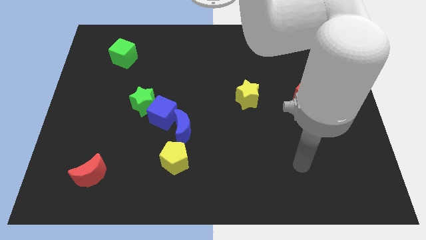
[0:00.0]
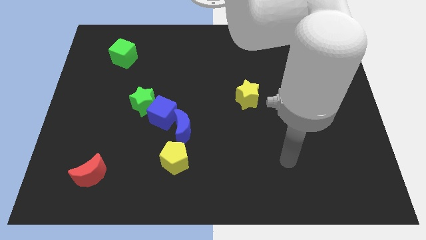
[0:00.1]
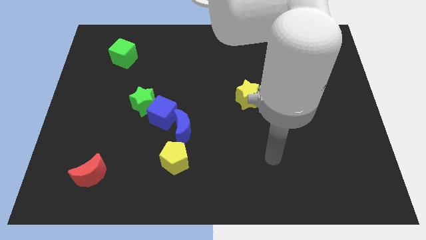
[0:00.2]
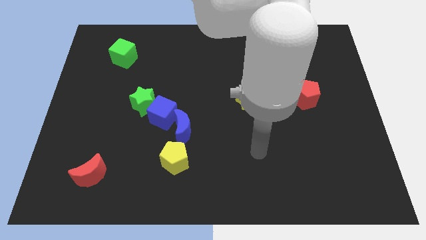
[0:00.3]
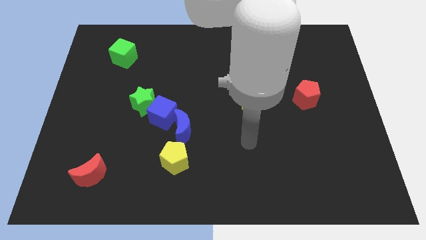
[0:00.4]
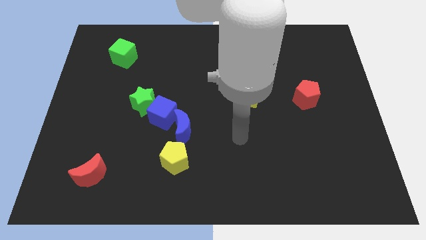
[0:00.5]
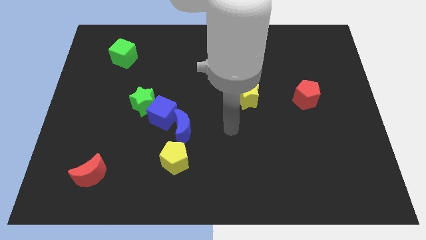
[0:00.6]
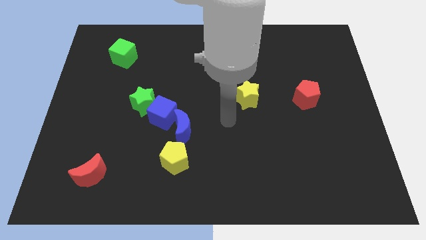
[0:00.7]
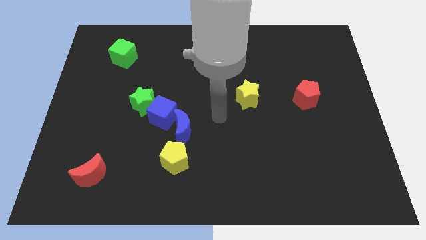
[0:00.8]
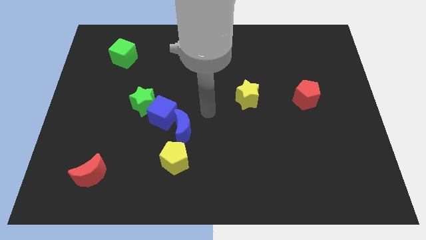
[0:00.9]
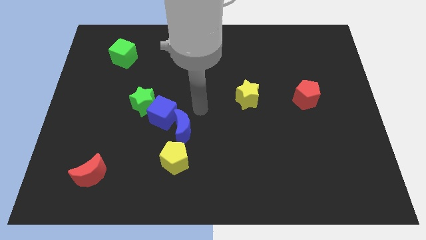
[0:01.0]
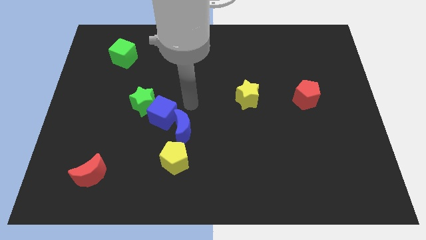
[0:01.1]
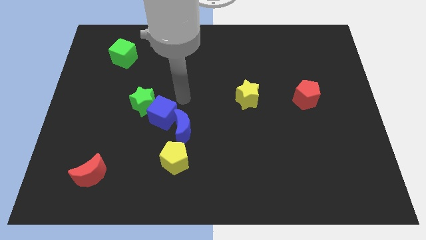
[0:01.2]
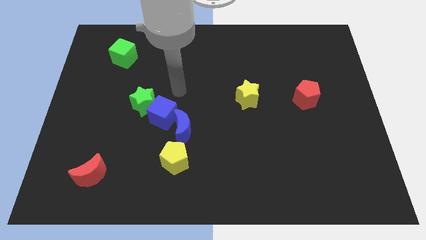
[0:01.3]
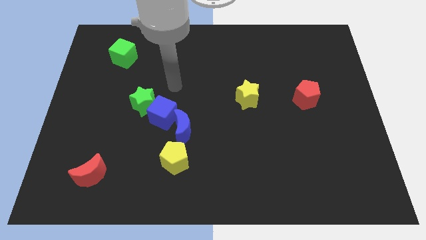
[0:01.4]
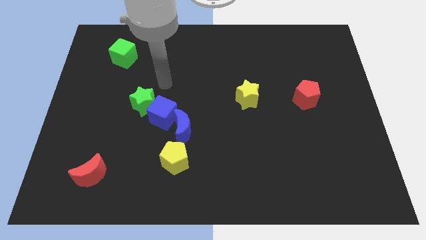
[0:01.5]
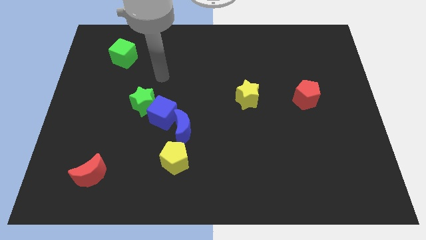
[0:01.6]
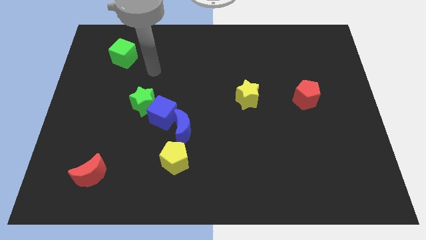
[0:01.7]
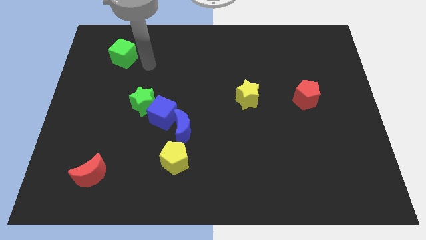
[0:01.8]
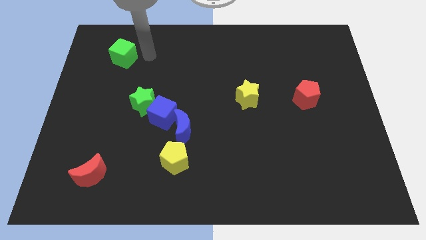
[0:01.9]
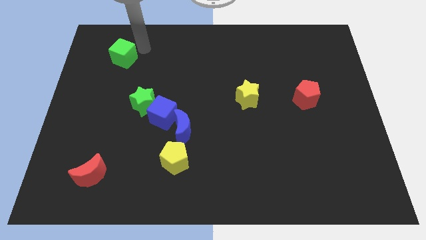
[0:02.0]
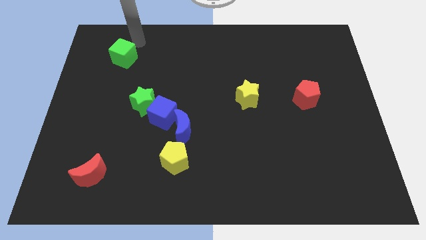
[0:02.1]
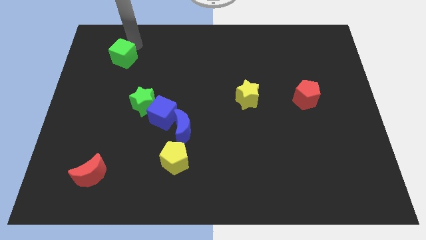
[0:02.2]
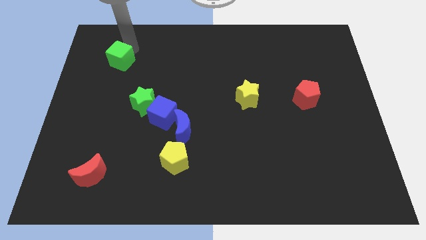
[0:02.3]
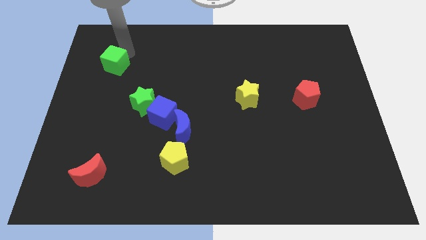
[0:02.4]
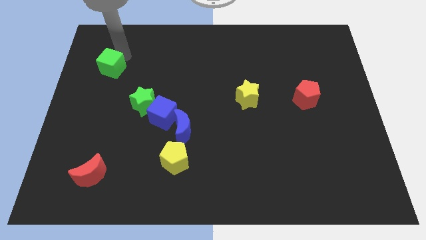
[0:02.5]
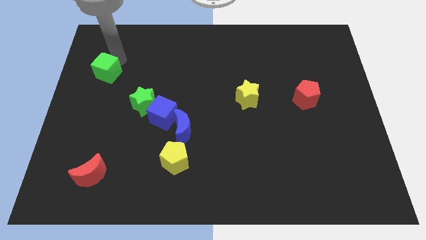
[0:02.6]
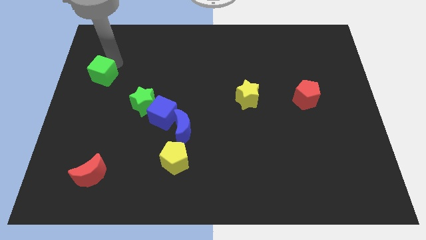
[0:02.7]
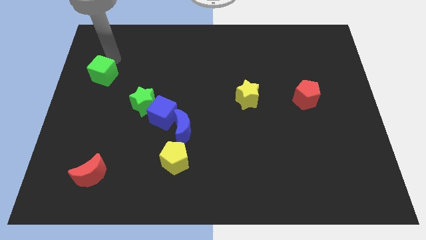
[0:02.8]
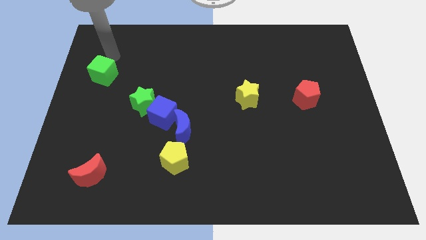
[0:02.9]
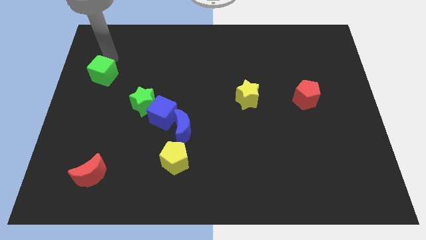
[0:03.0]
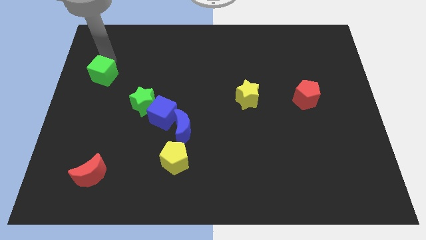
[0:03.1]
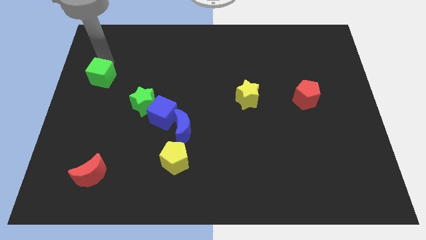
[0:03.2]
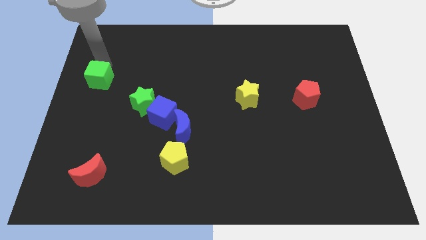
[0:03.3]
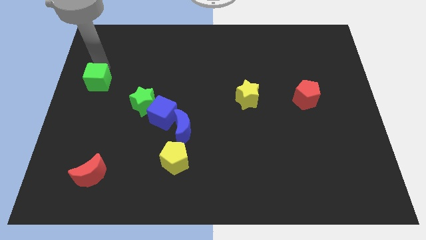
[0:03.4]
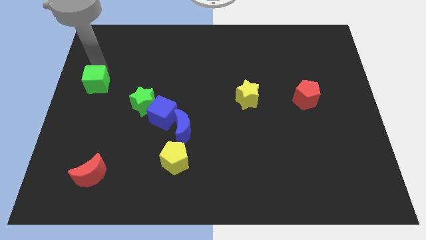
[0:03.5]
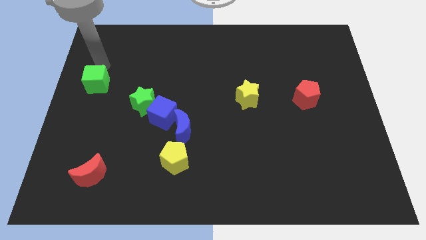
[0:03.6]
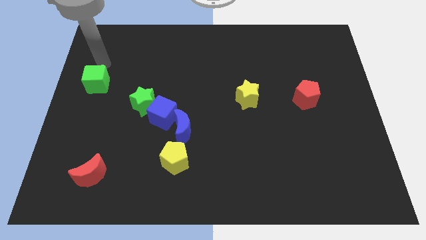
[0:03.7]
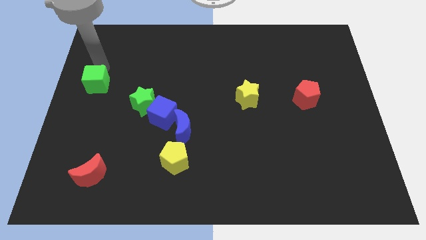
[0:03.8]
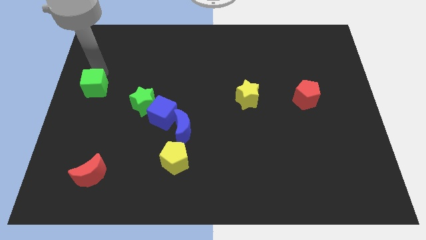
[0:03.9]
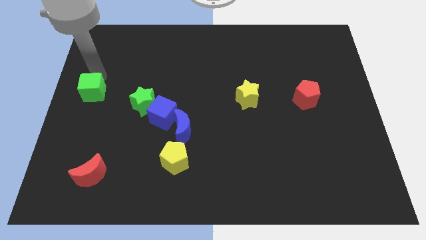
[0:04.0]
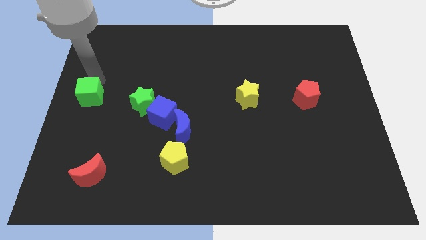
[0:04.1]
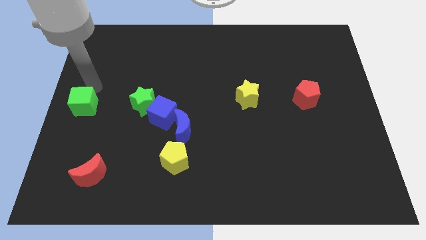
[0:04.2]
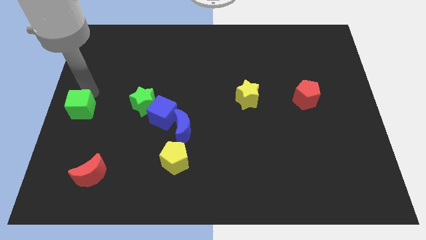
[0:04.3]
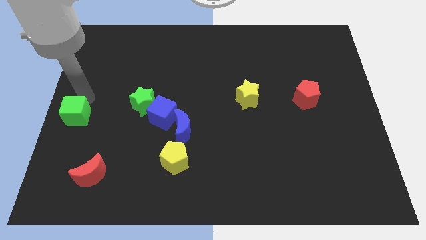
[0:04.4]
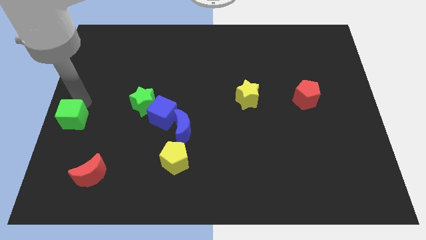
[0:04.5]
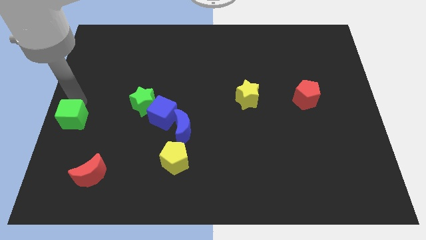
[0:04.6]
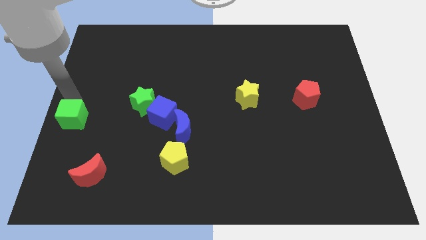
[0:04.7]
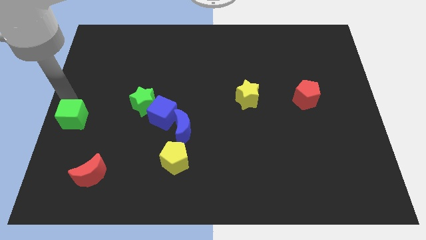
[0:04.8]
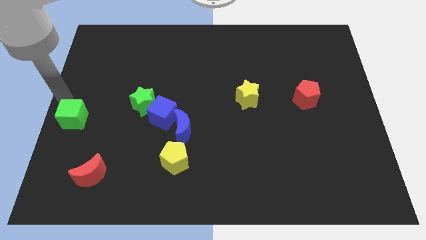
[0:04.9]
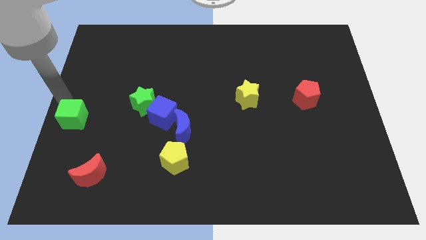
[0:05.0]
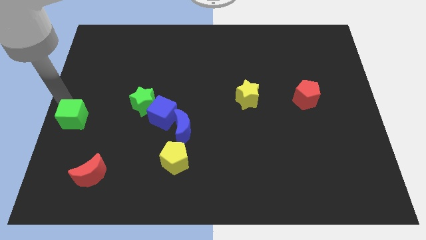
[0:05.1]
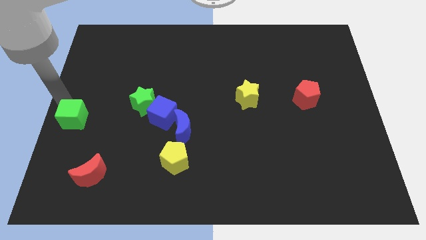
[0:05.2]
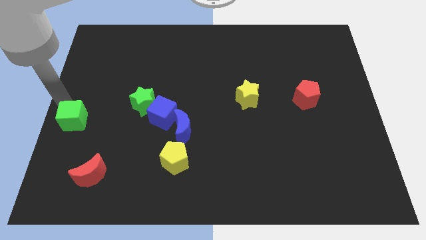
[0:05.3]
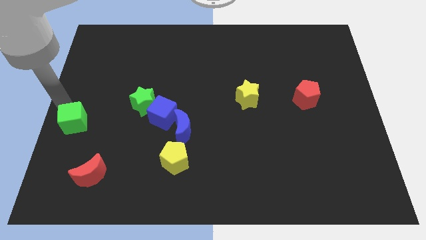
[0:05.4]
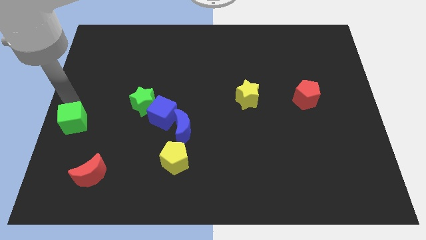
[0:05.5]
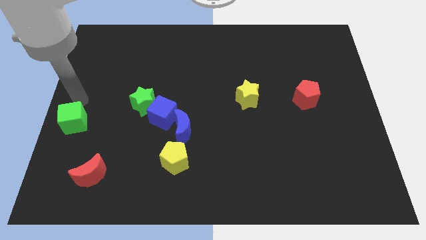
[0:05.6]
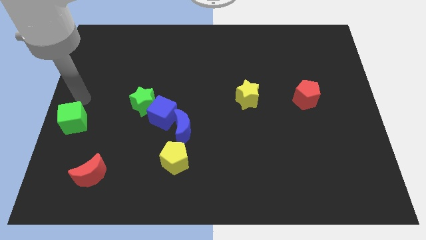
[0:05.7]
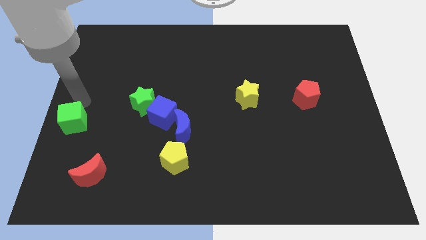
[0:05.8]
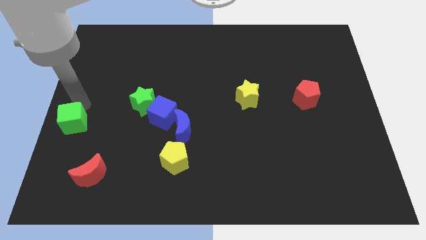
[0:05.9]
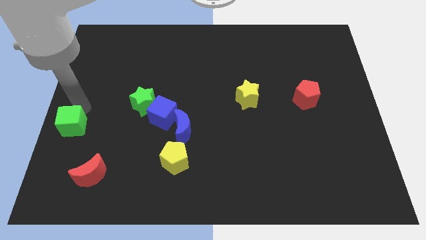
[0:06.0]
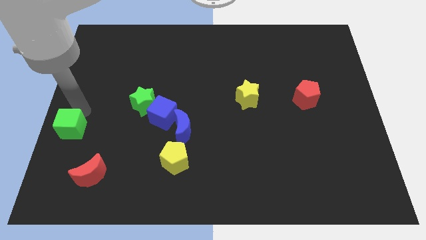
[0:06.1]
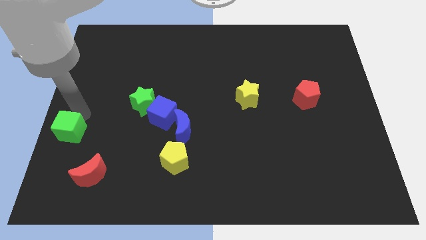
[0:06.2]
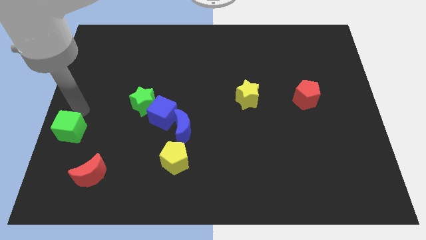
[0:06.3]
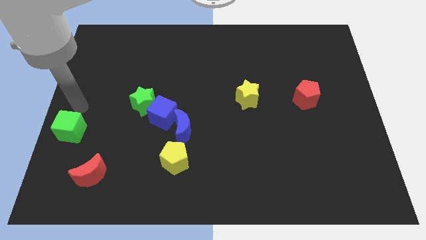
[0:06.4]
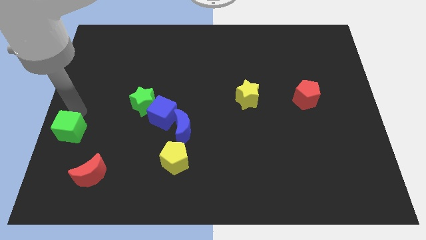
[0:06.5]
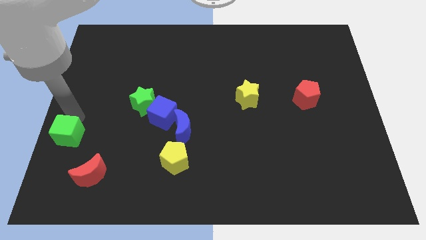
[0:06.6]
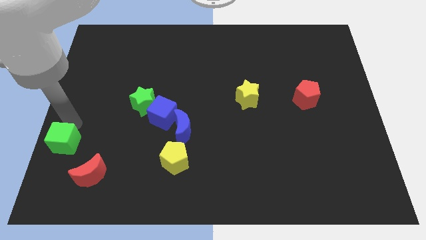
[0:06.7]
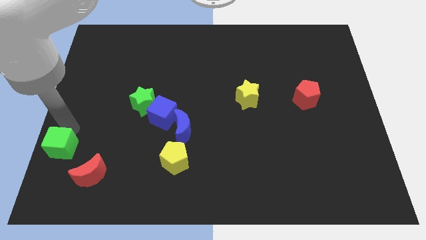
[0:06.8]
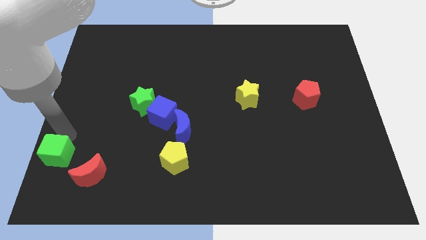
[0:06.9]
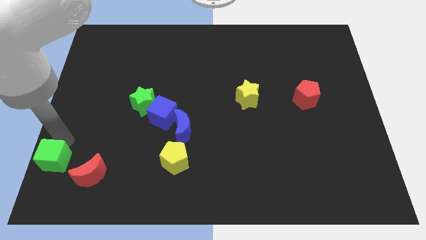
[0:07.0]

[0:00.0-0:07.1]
slide the green cube to the bottom left
